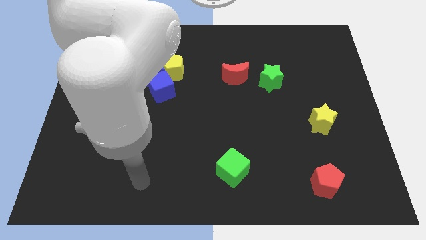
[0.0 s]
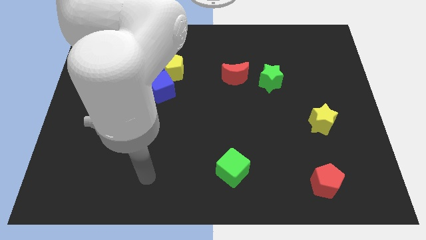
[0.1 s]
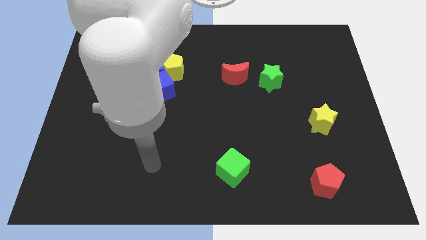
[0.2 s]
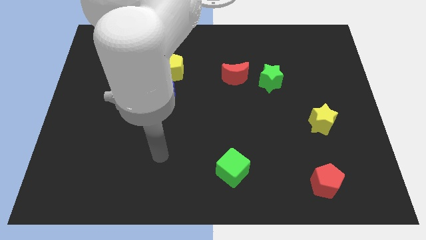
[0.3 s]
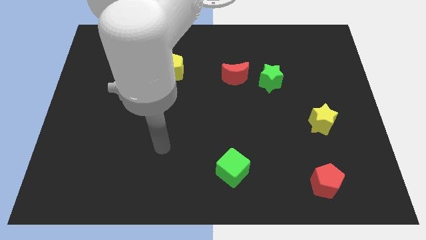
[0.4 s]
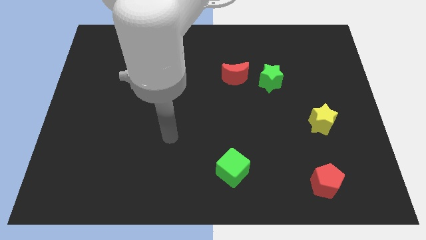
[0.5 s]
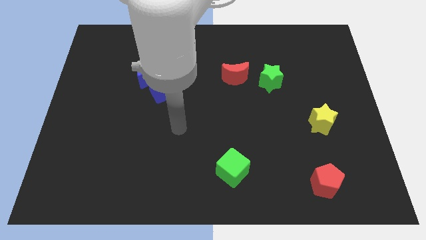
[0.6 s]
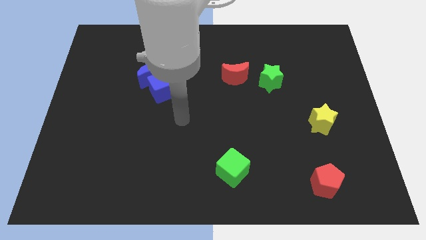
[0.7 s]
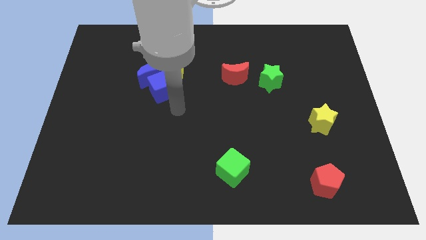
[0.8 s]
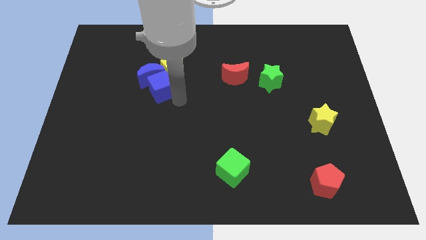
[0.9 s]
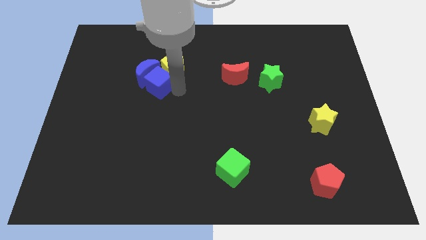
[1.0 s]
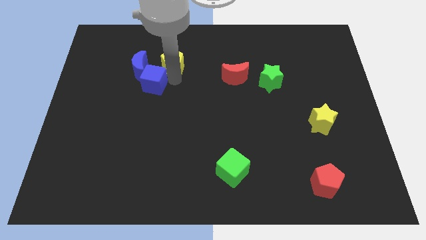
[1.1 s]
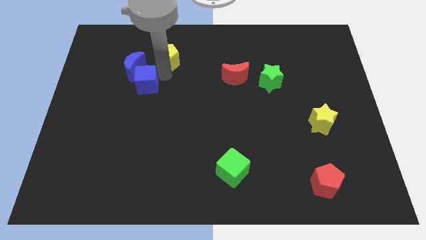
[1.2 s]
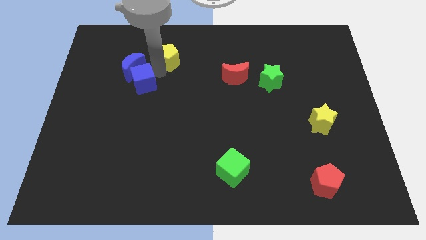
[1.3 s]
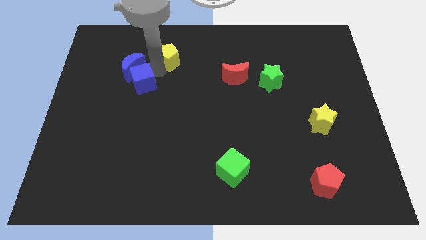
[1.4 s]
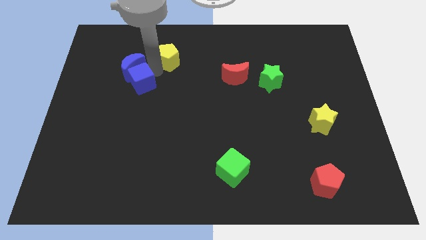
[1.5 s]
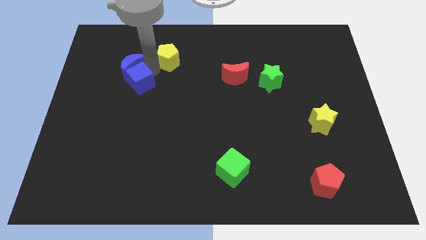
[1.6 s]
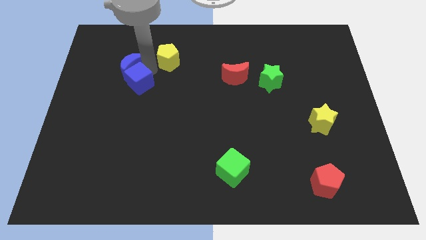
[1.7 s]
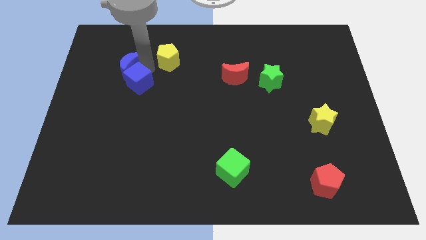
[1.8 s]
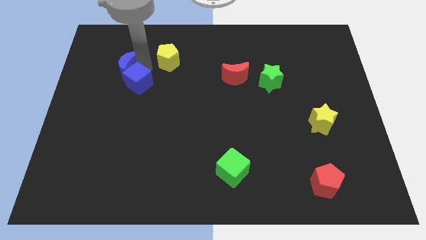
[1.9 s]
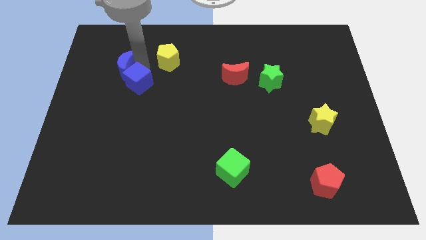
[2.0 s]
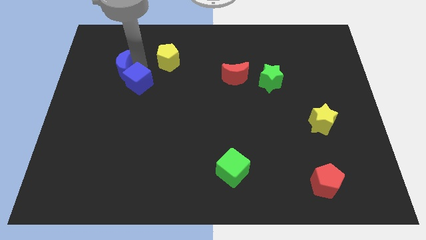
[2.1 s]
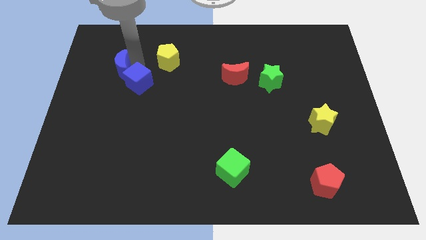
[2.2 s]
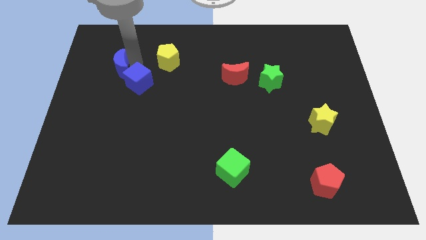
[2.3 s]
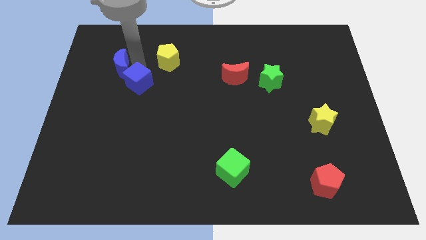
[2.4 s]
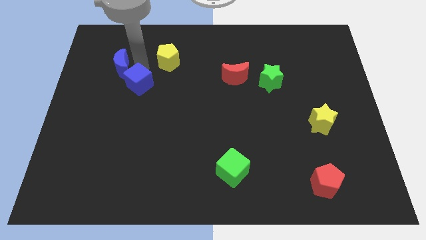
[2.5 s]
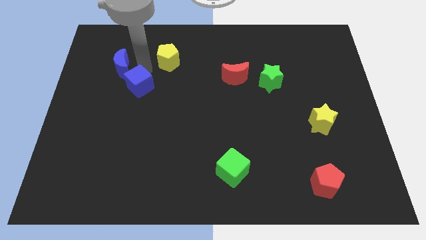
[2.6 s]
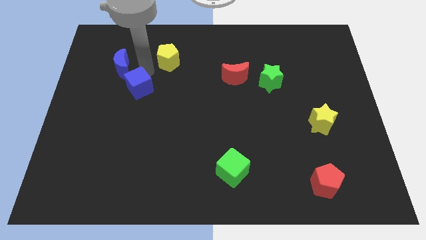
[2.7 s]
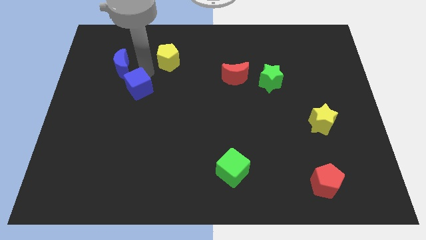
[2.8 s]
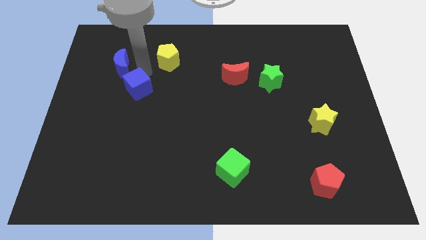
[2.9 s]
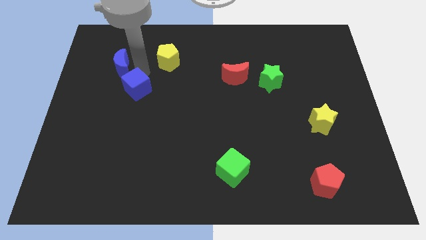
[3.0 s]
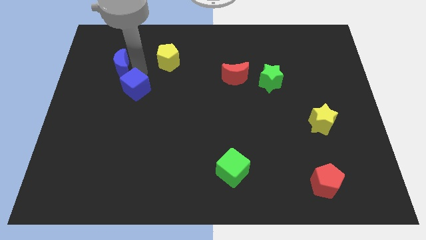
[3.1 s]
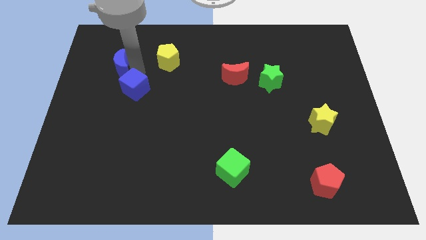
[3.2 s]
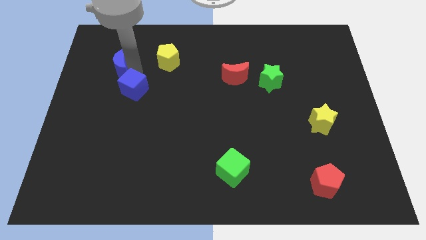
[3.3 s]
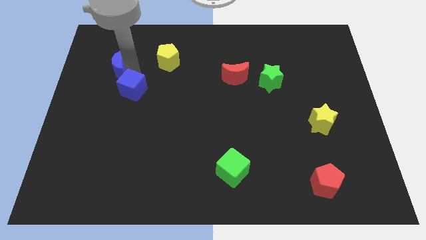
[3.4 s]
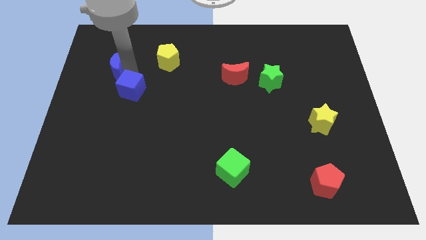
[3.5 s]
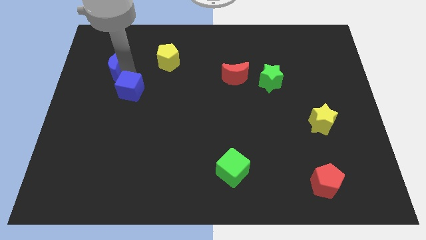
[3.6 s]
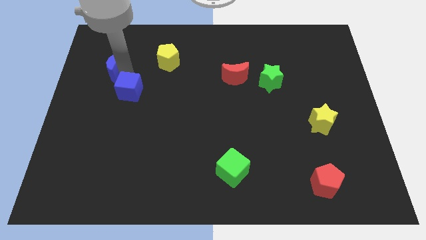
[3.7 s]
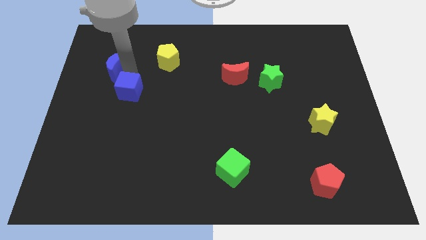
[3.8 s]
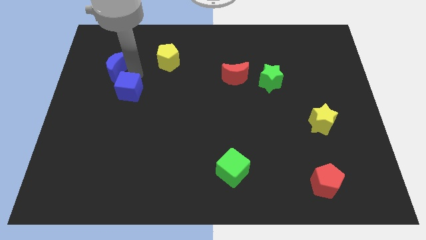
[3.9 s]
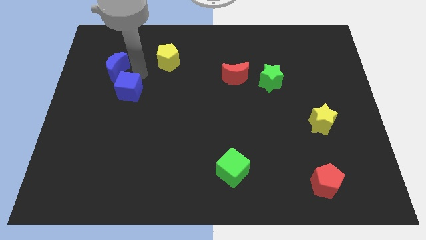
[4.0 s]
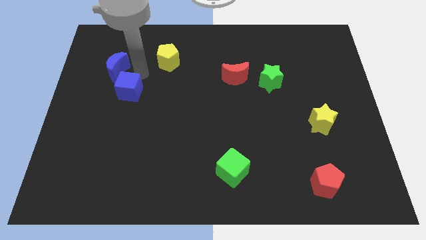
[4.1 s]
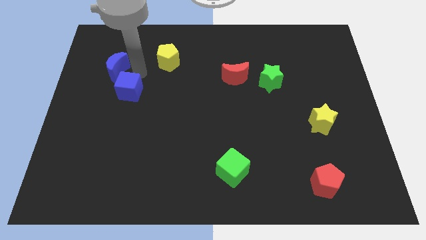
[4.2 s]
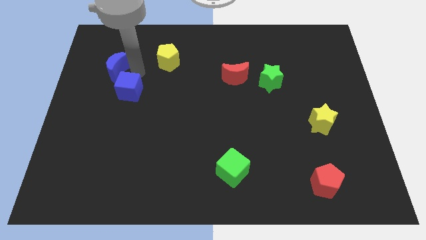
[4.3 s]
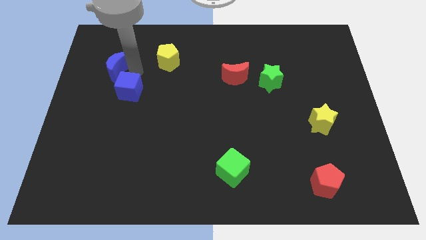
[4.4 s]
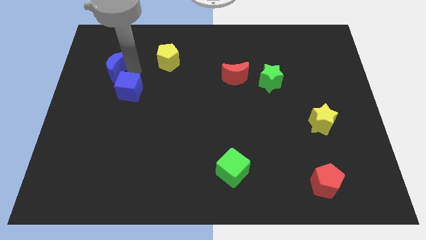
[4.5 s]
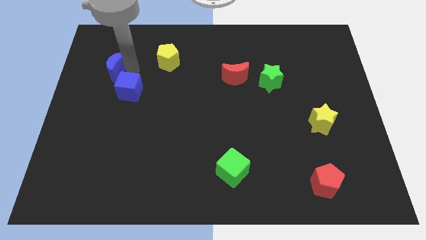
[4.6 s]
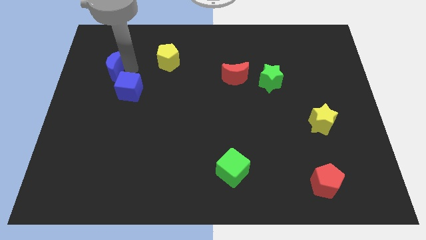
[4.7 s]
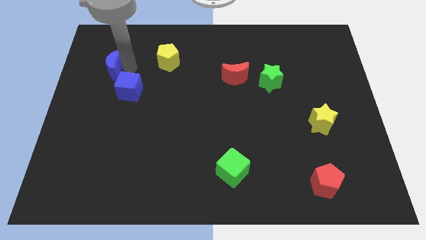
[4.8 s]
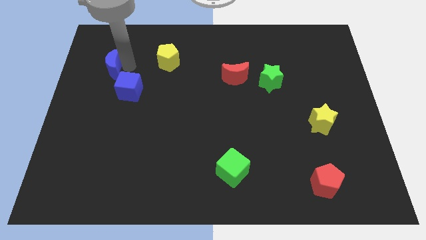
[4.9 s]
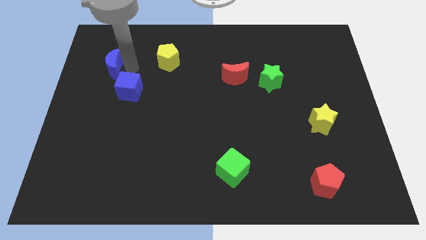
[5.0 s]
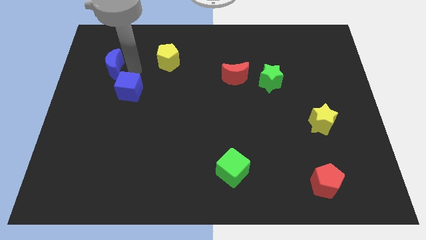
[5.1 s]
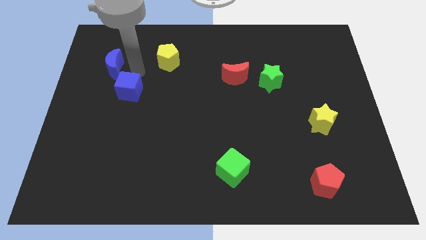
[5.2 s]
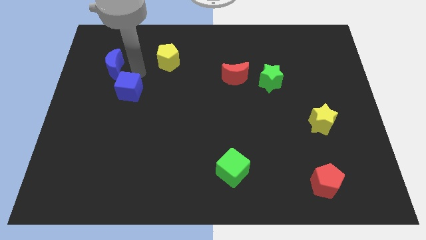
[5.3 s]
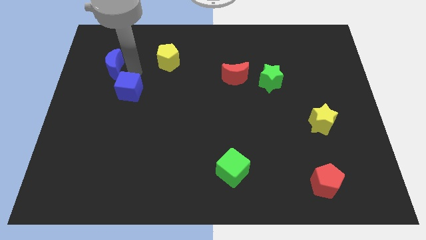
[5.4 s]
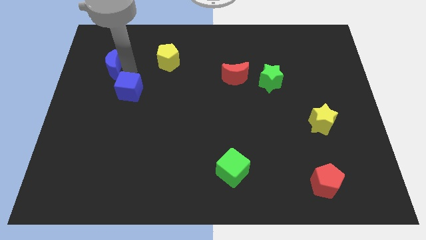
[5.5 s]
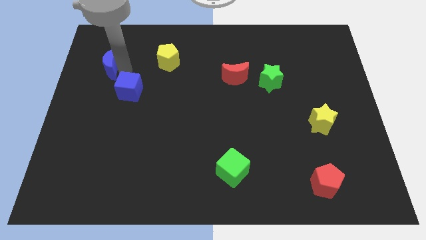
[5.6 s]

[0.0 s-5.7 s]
pull the blue moon apart from the blue cube and yellow pentagon

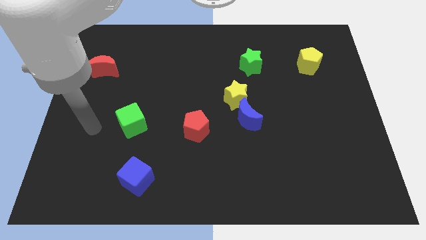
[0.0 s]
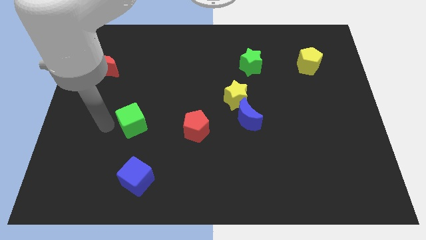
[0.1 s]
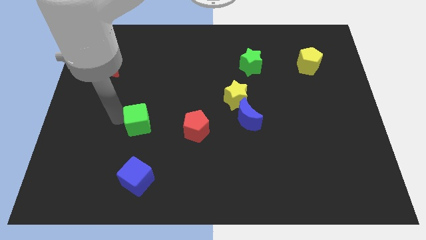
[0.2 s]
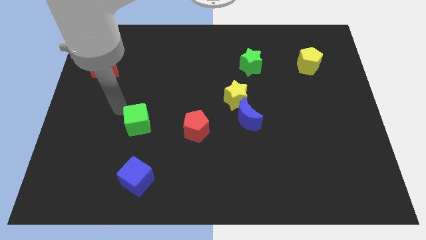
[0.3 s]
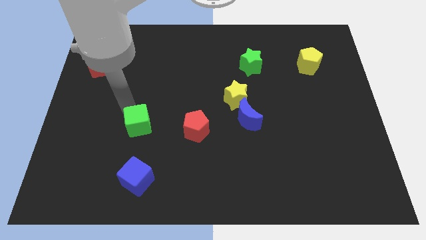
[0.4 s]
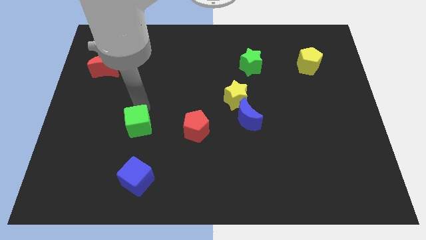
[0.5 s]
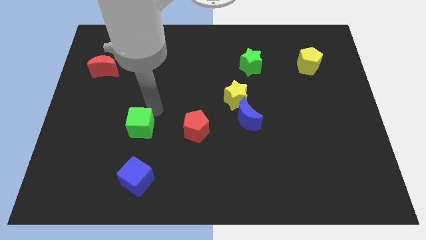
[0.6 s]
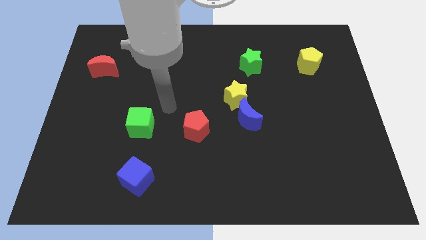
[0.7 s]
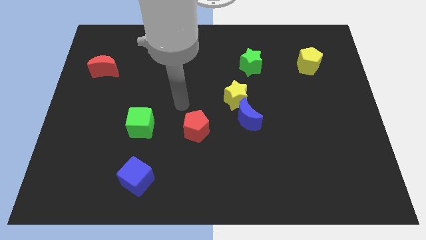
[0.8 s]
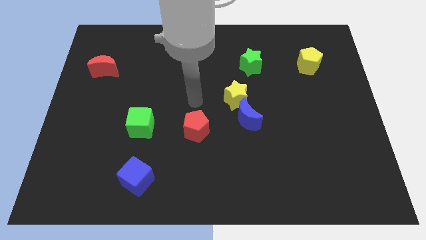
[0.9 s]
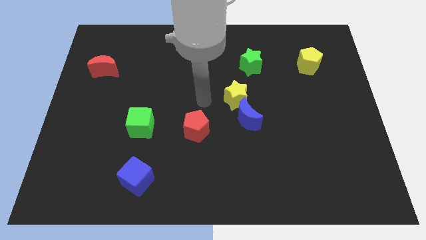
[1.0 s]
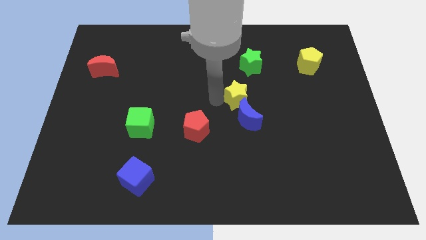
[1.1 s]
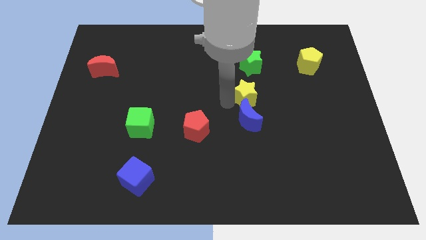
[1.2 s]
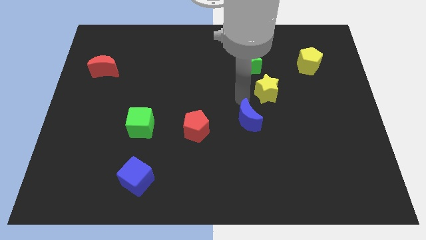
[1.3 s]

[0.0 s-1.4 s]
move the blue moon away from the yellow star

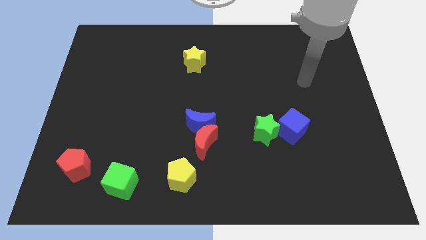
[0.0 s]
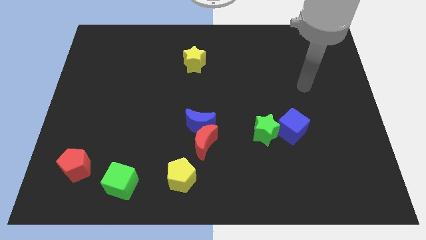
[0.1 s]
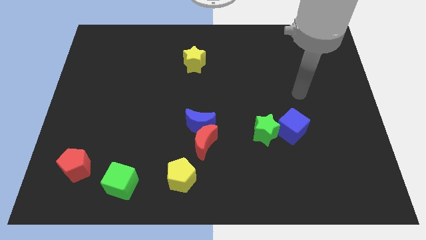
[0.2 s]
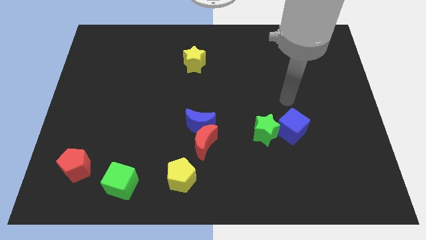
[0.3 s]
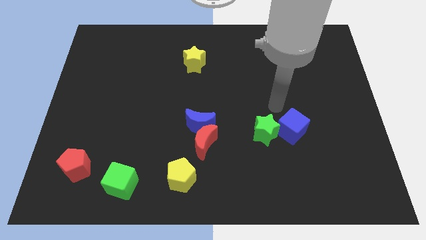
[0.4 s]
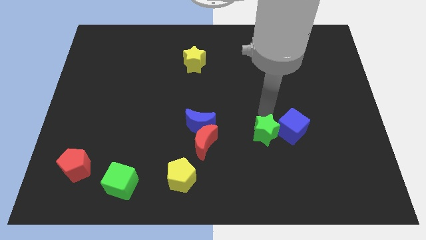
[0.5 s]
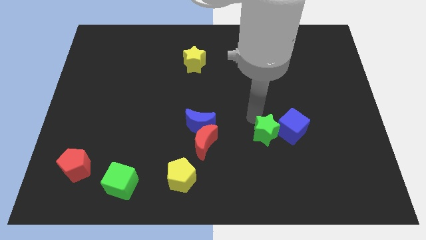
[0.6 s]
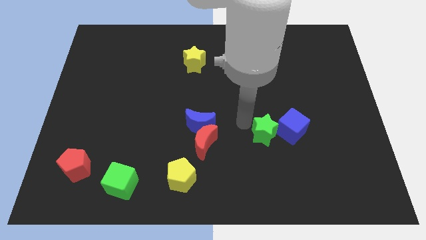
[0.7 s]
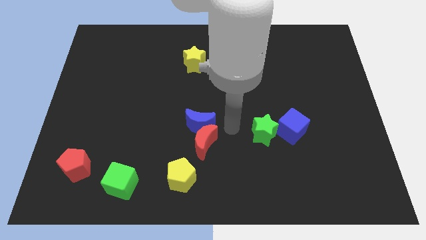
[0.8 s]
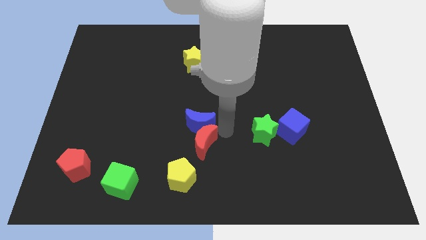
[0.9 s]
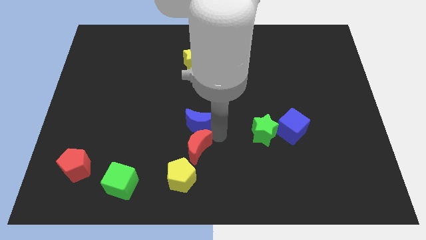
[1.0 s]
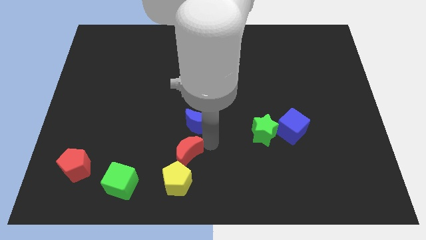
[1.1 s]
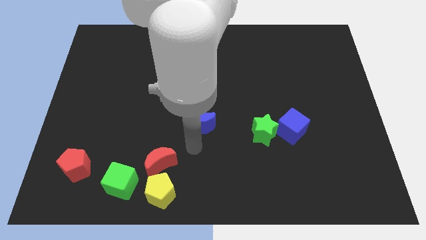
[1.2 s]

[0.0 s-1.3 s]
separate the blue moon from the red moon

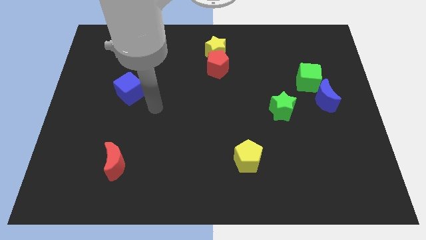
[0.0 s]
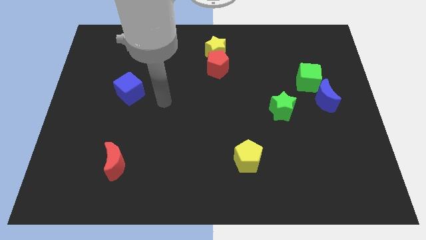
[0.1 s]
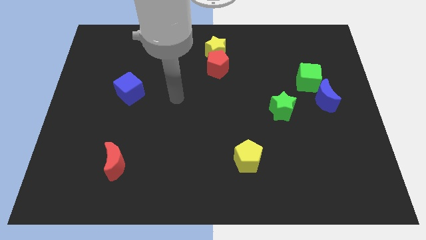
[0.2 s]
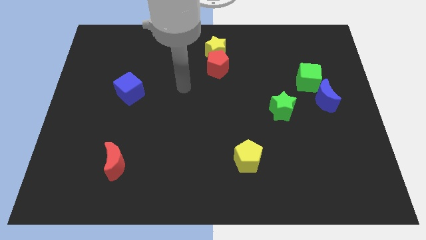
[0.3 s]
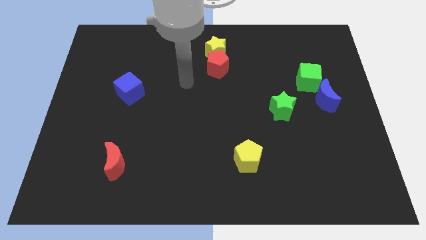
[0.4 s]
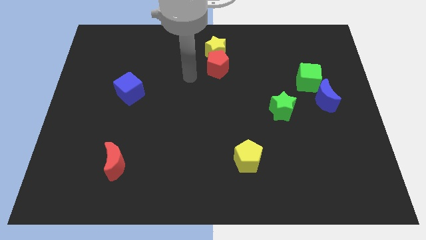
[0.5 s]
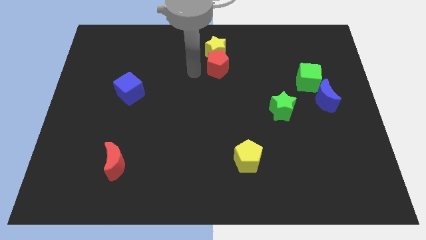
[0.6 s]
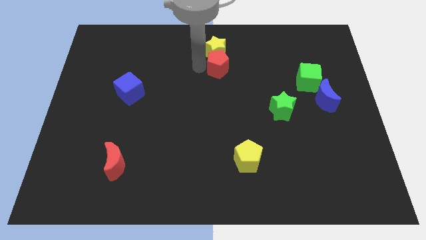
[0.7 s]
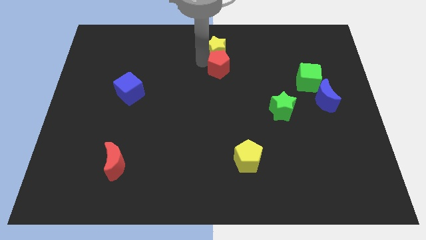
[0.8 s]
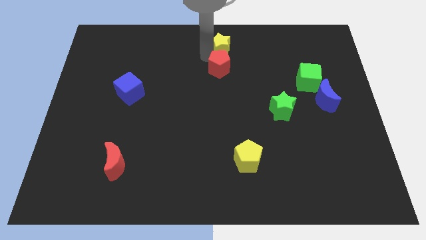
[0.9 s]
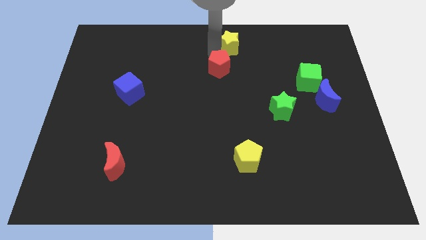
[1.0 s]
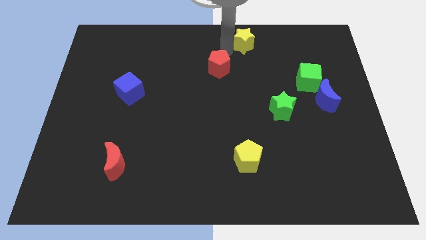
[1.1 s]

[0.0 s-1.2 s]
pull the red pentagon apart from the yellow star
